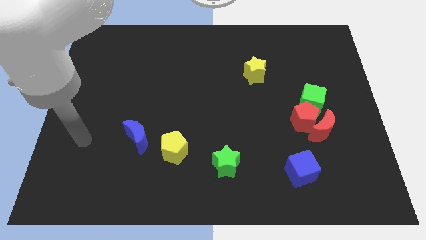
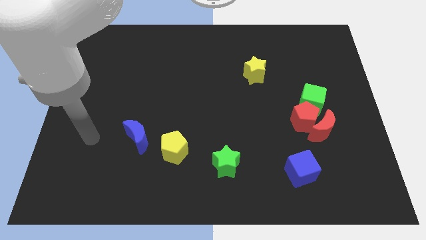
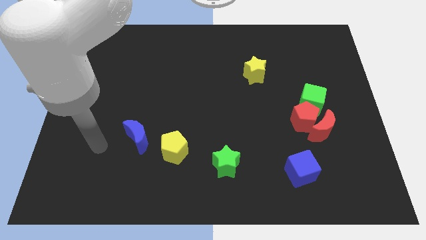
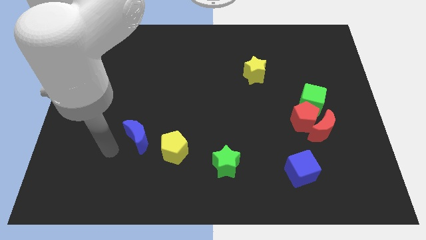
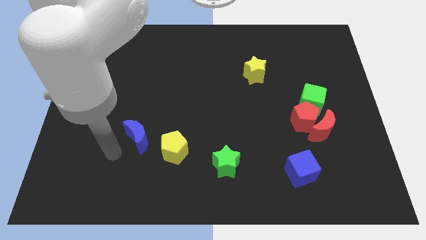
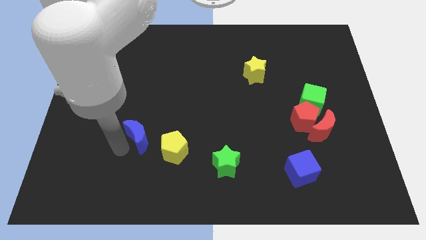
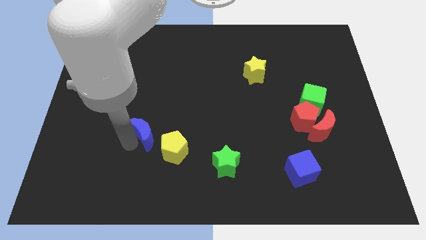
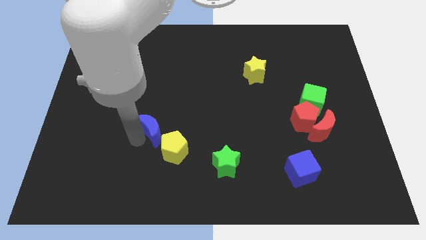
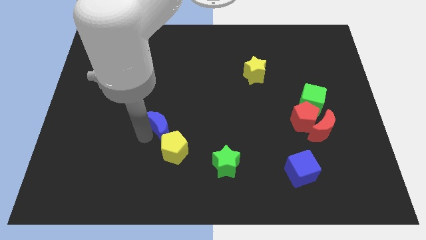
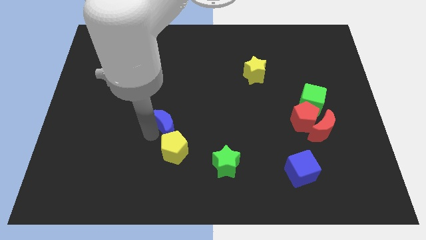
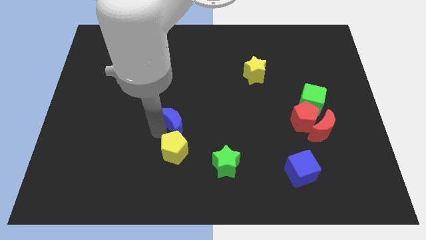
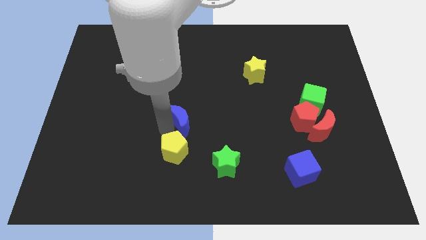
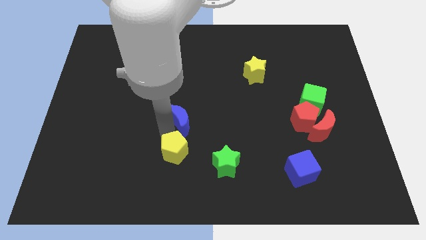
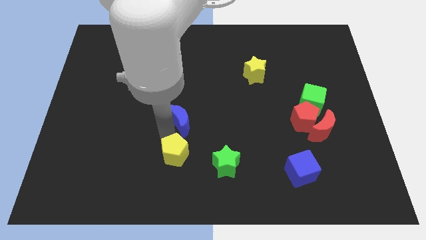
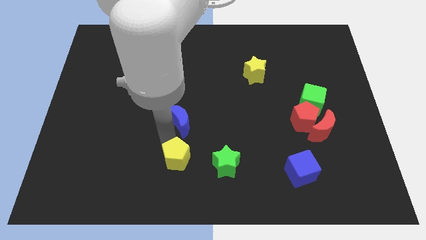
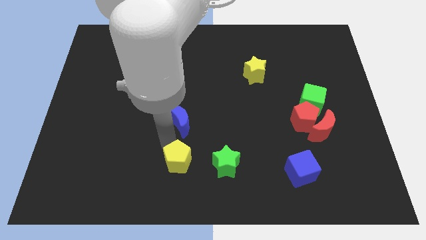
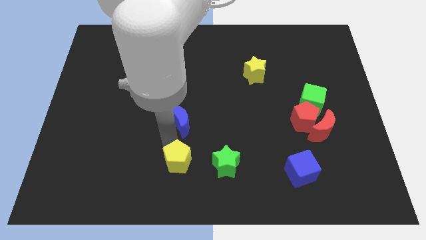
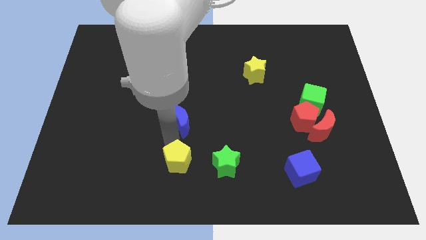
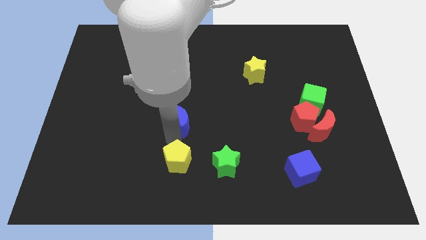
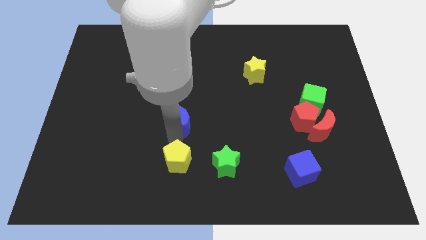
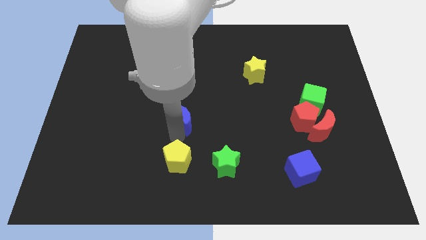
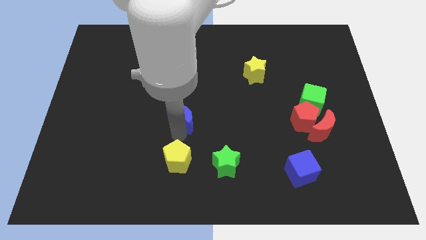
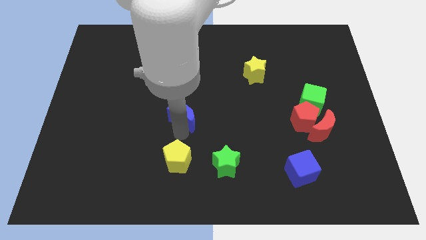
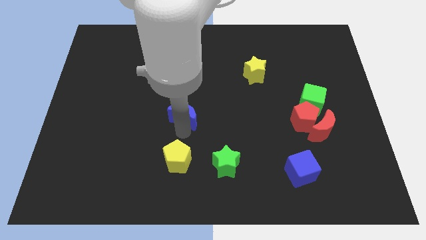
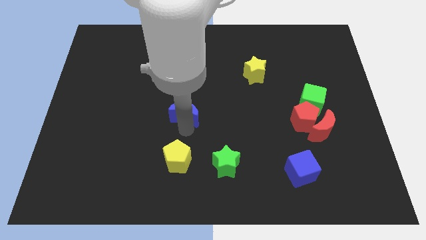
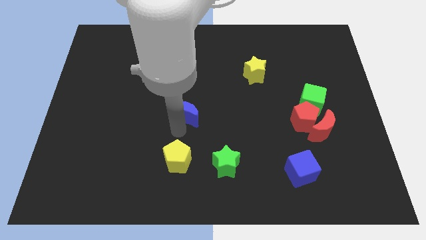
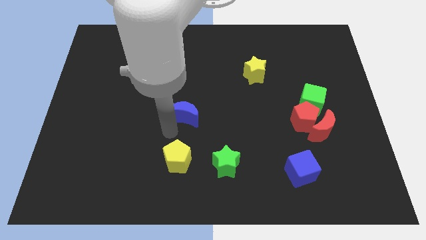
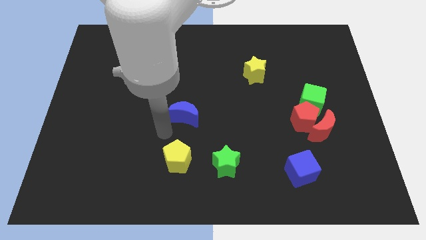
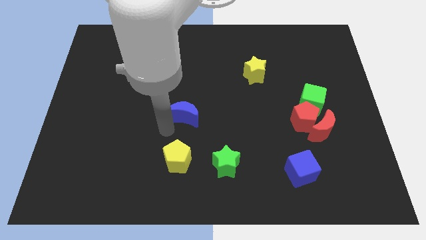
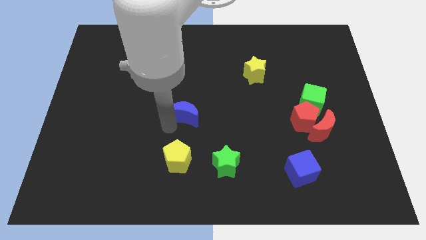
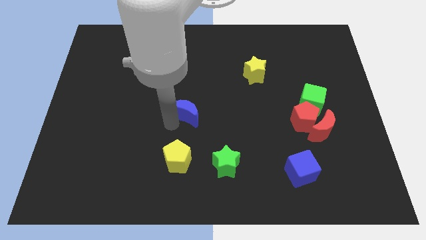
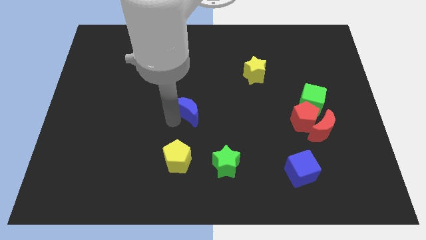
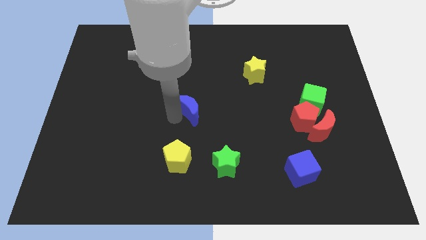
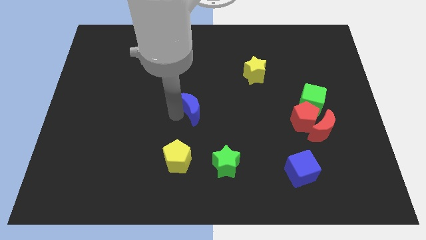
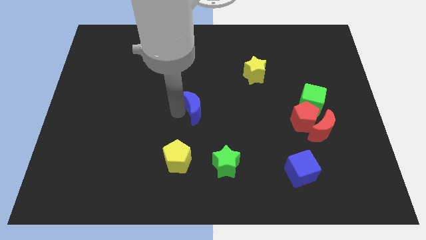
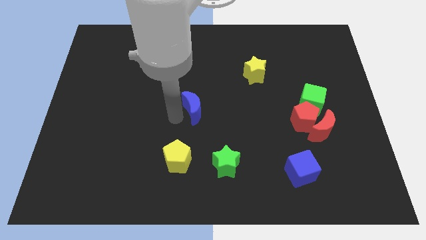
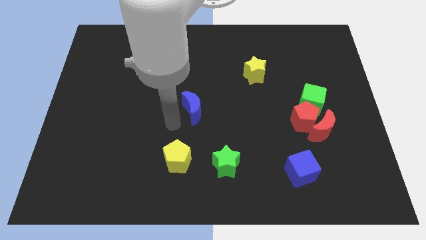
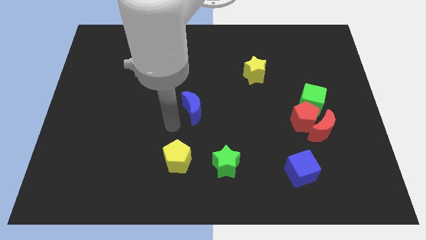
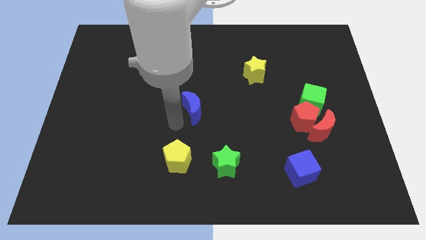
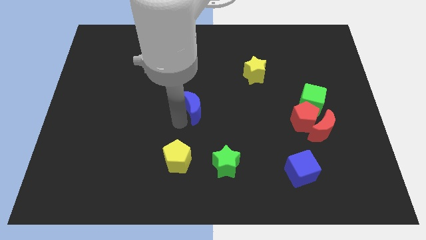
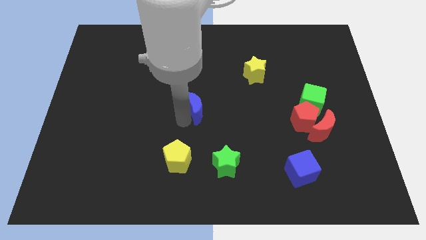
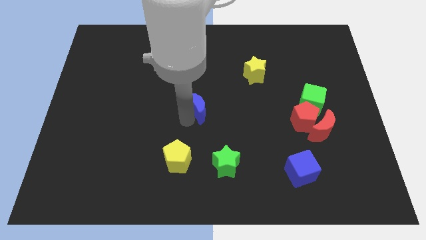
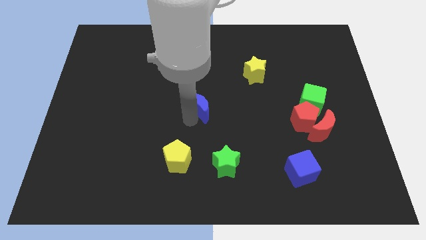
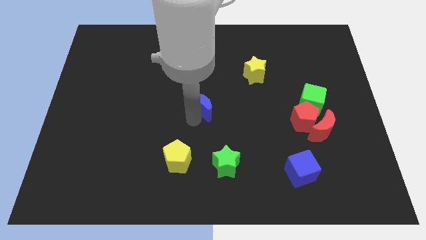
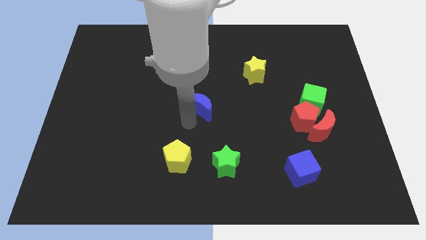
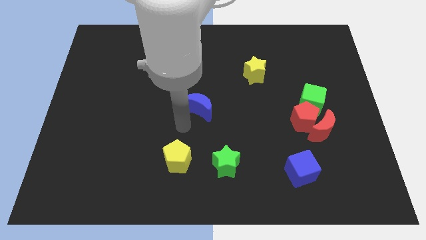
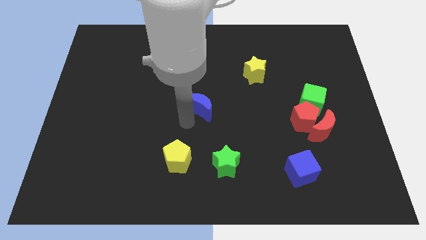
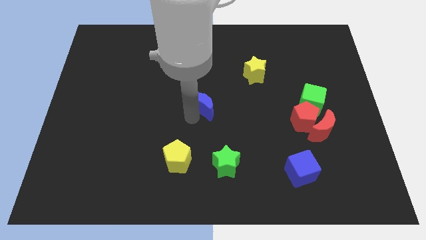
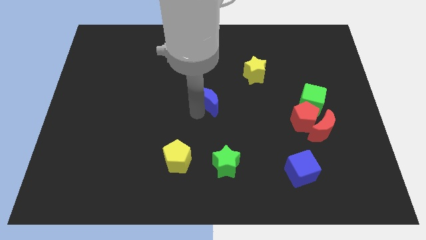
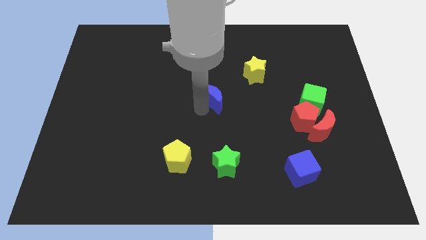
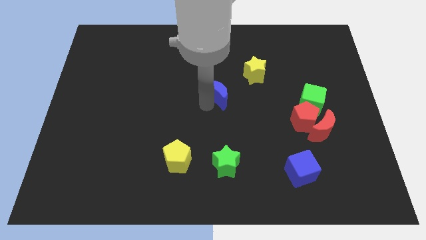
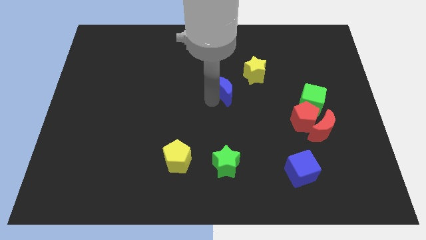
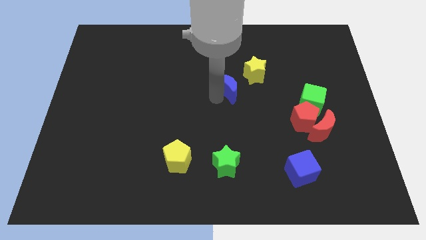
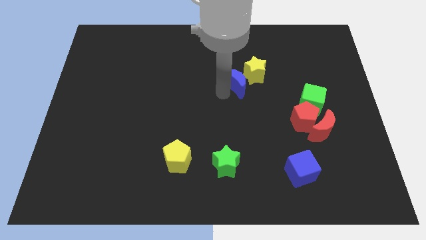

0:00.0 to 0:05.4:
push the blue moon to the yellow star

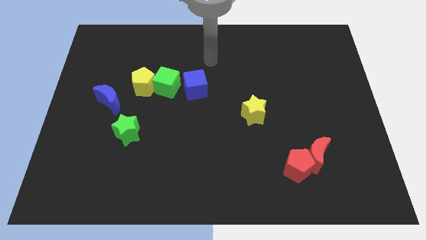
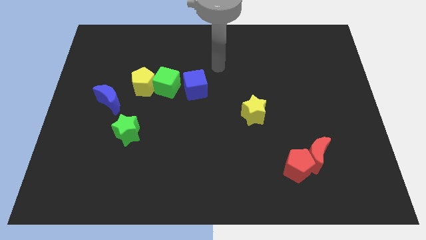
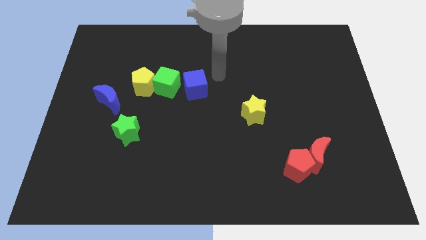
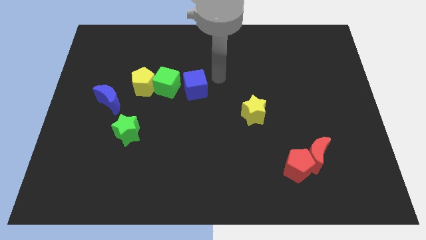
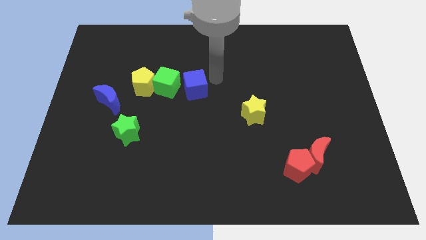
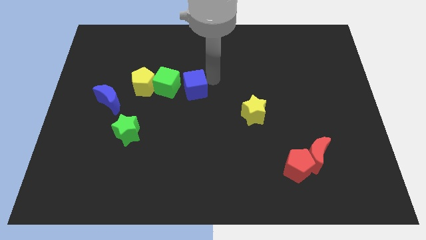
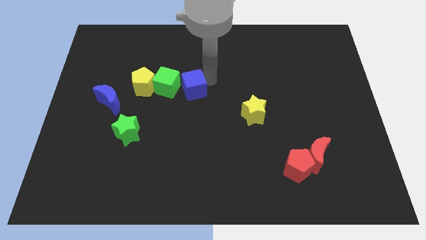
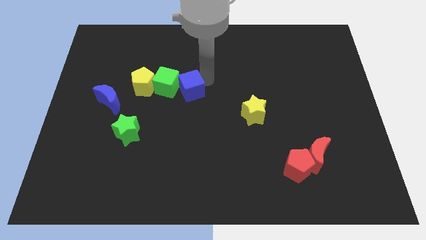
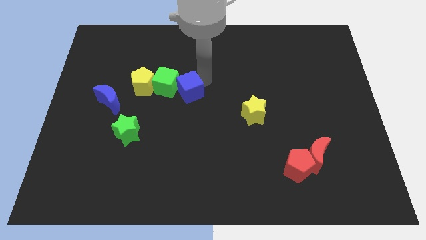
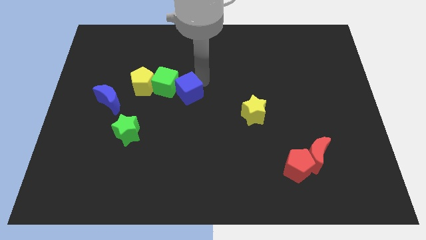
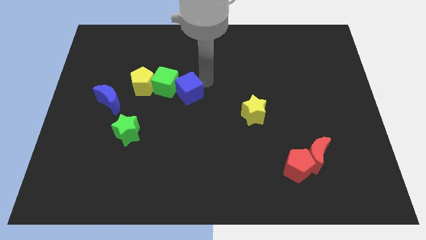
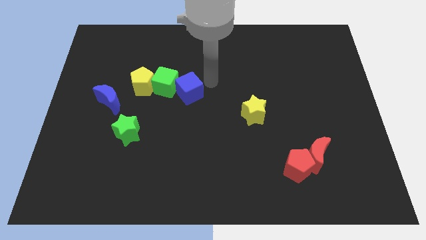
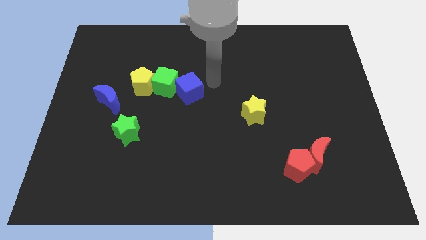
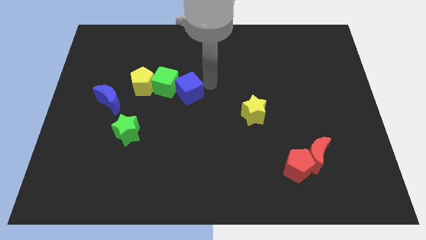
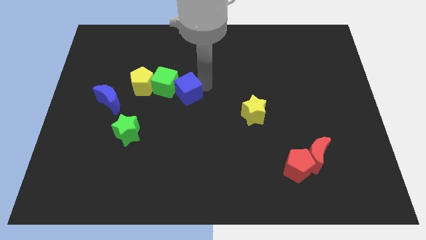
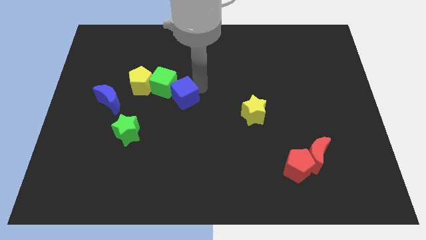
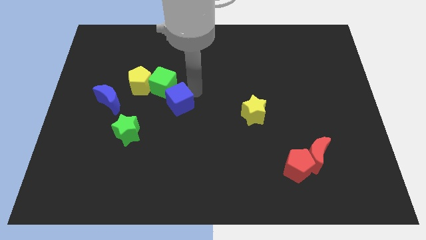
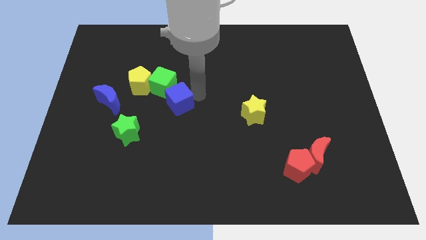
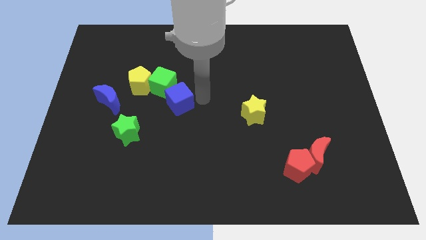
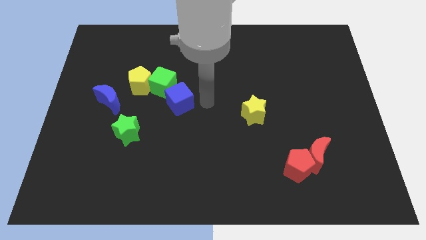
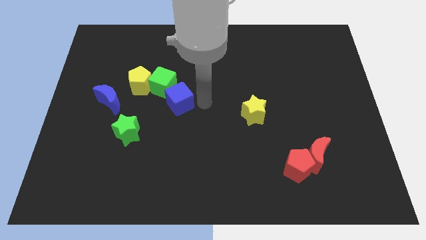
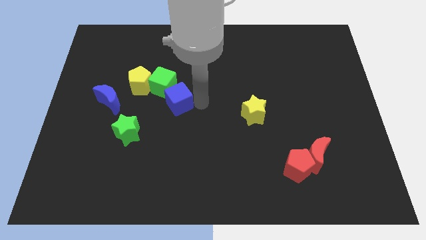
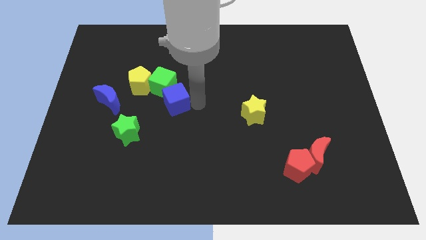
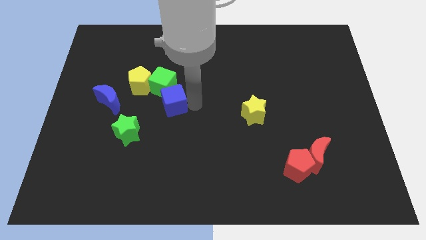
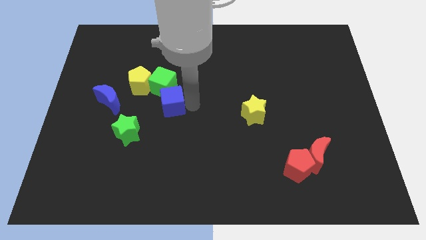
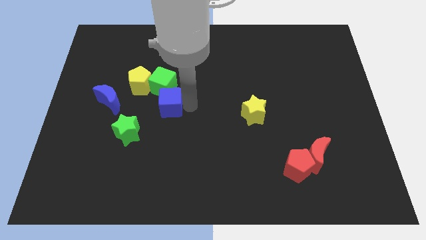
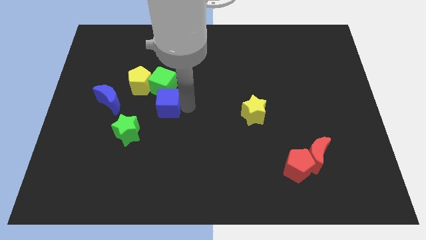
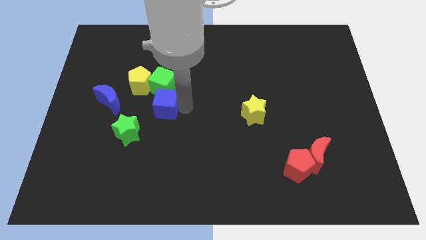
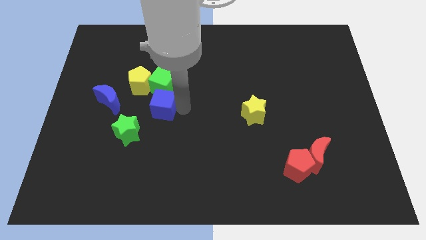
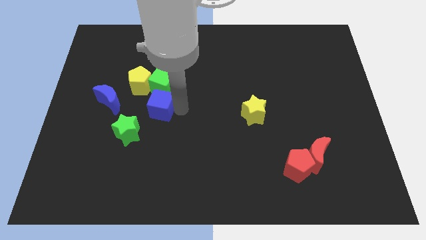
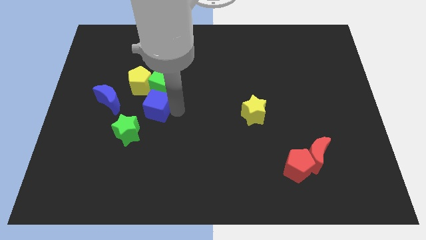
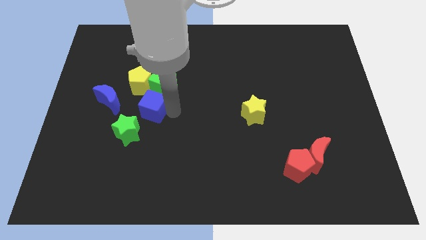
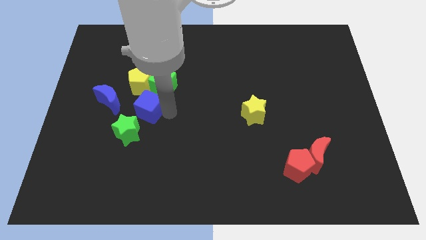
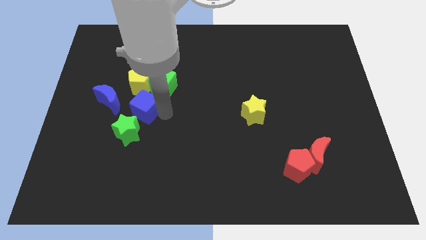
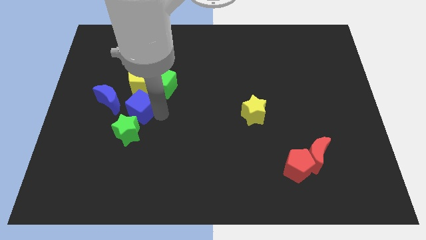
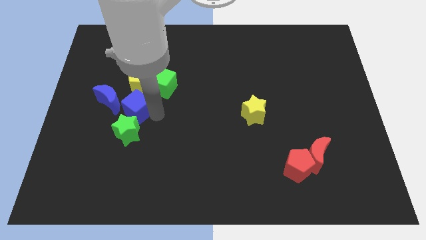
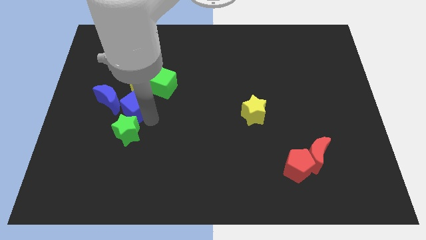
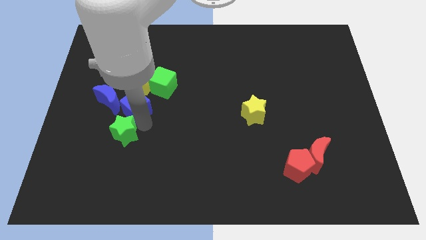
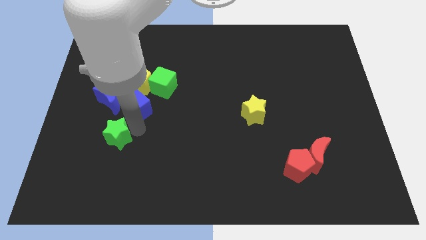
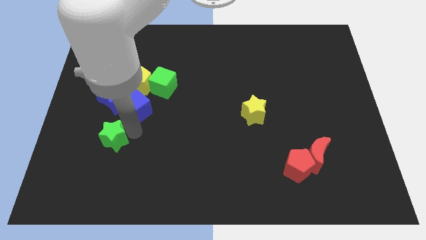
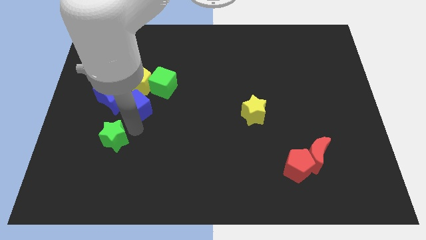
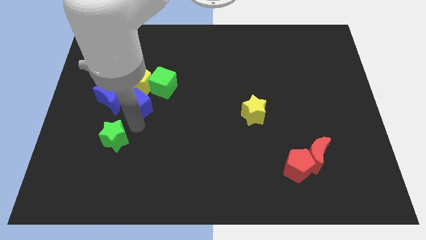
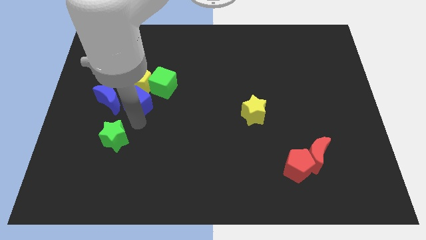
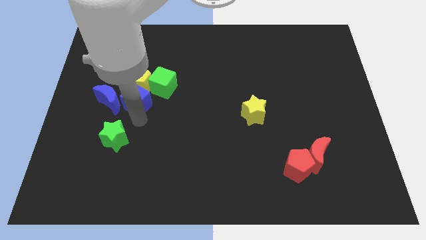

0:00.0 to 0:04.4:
push the blue cube towards the yellow pentagon
